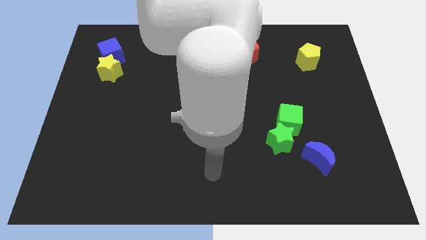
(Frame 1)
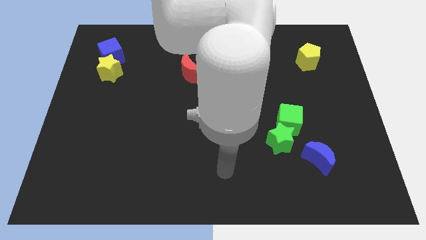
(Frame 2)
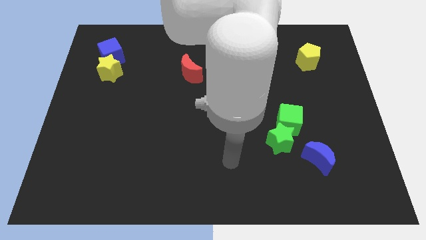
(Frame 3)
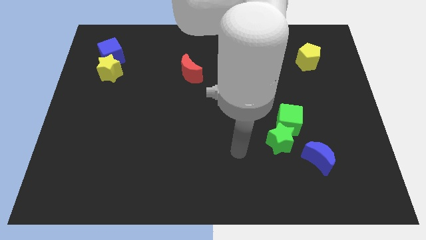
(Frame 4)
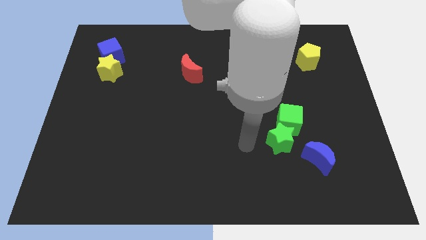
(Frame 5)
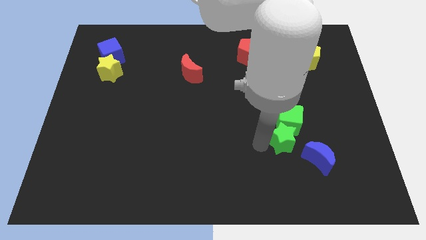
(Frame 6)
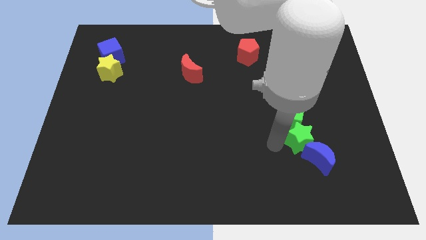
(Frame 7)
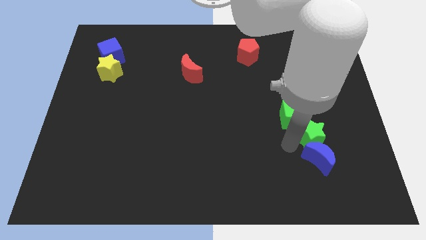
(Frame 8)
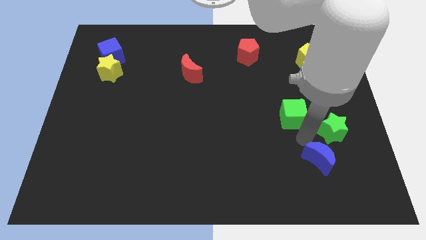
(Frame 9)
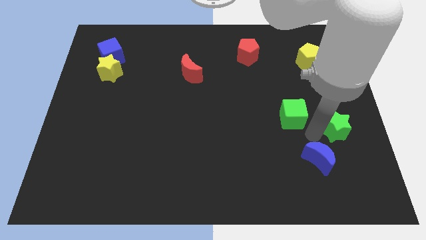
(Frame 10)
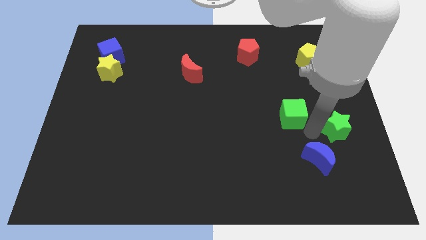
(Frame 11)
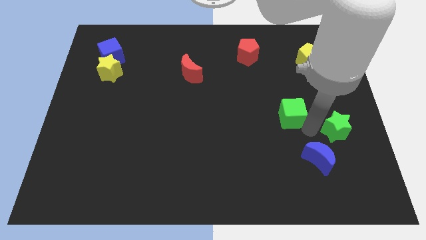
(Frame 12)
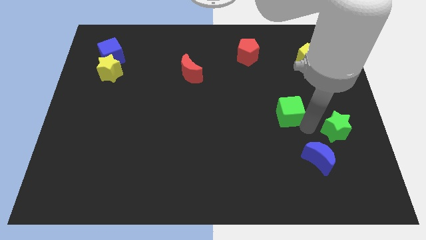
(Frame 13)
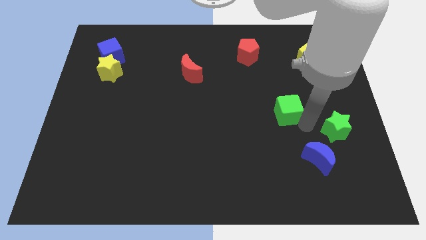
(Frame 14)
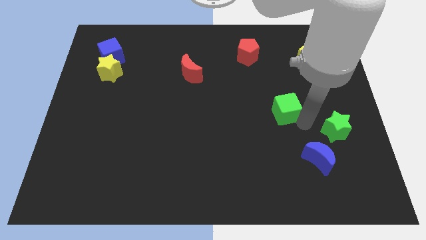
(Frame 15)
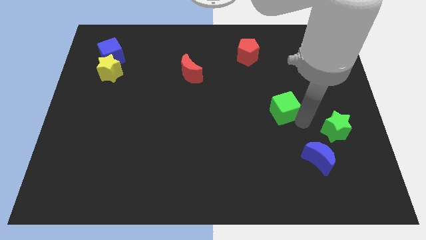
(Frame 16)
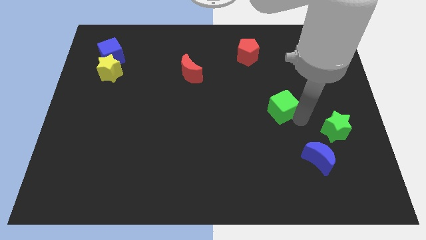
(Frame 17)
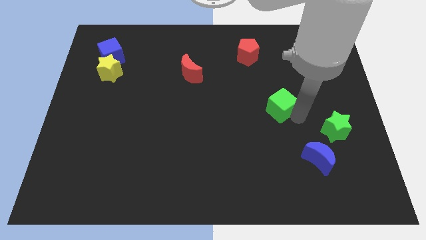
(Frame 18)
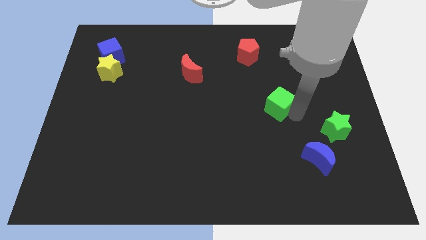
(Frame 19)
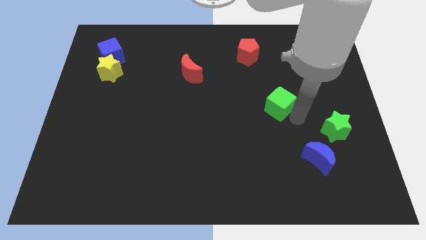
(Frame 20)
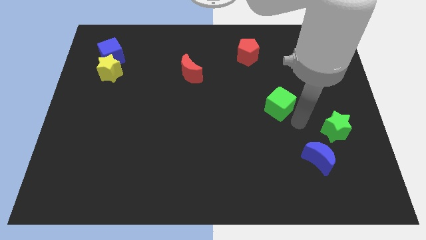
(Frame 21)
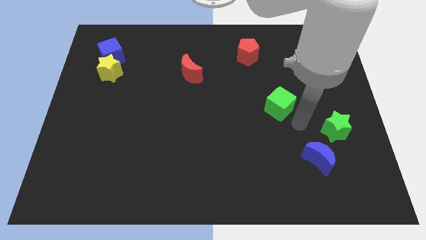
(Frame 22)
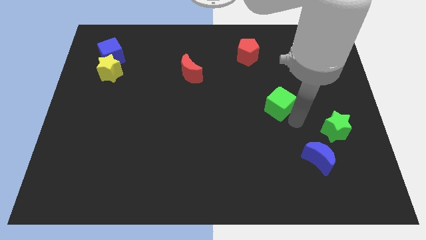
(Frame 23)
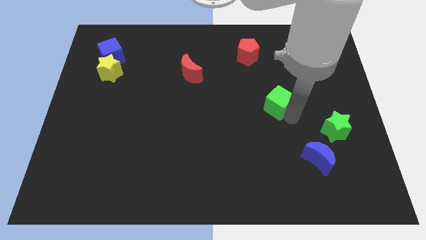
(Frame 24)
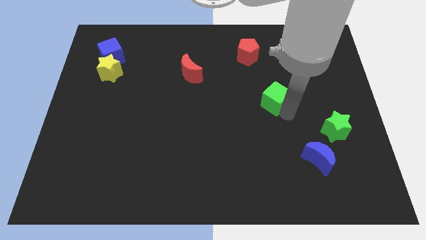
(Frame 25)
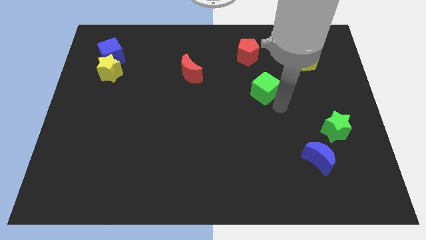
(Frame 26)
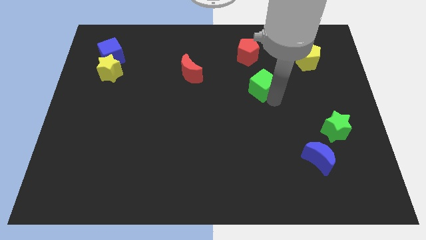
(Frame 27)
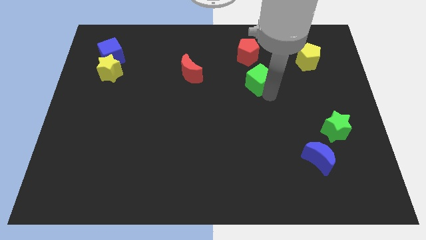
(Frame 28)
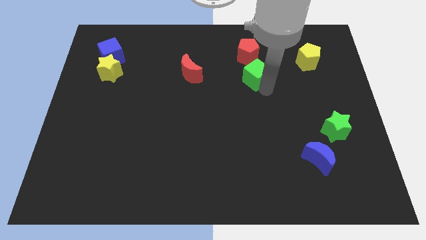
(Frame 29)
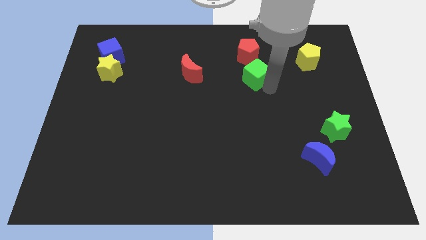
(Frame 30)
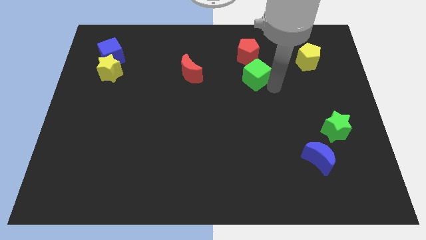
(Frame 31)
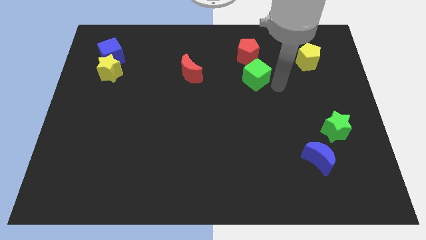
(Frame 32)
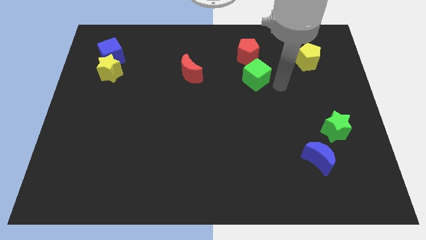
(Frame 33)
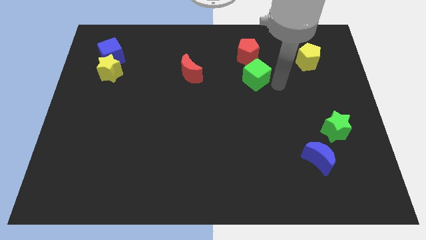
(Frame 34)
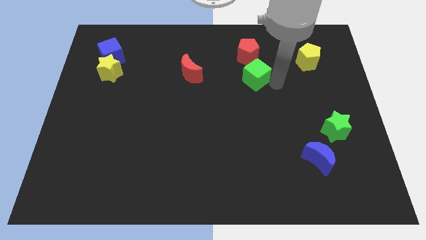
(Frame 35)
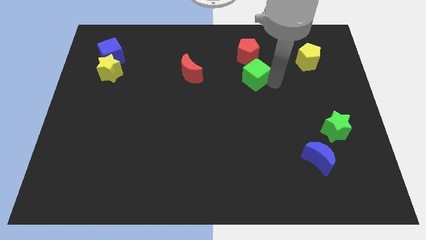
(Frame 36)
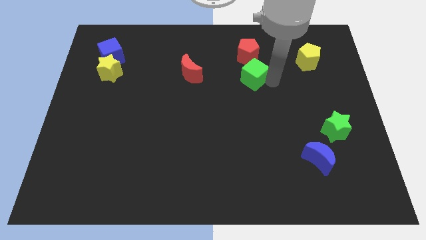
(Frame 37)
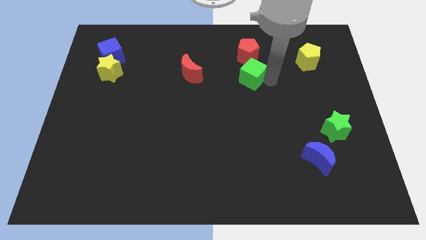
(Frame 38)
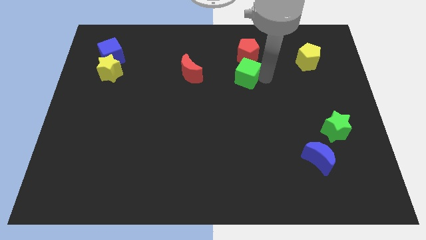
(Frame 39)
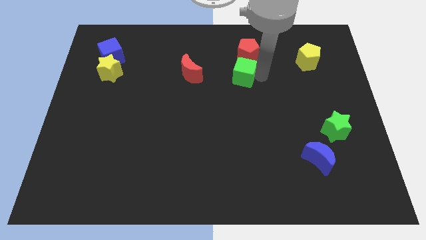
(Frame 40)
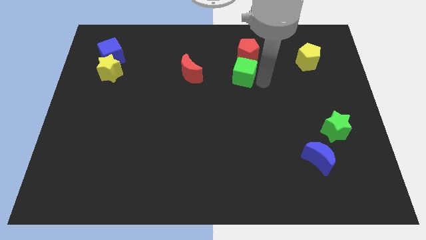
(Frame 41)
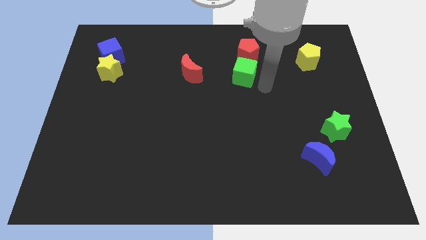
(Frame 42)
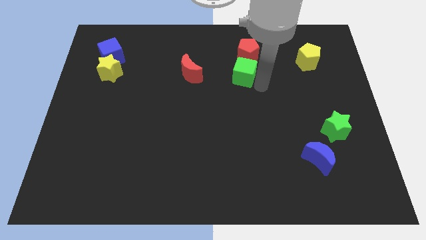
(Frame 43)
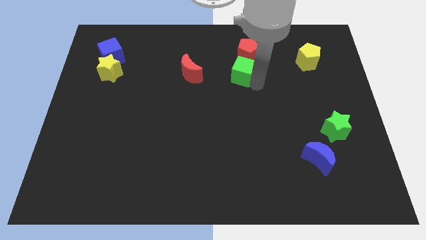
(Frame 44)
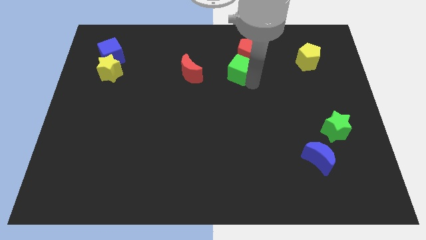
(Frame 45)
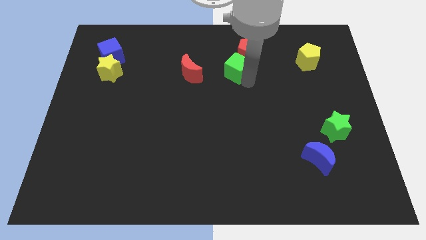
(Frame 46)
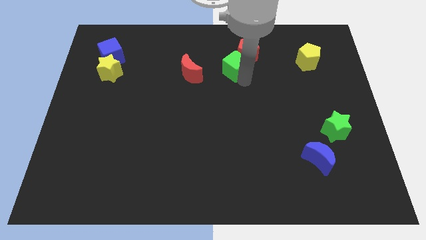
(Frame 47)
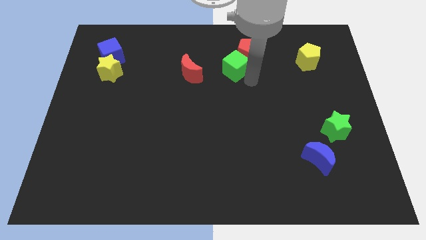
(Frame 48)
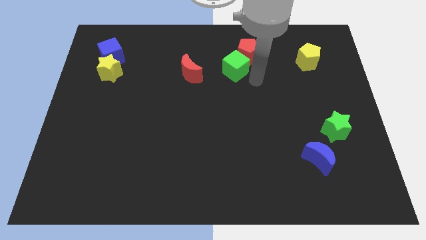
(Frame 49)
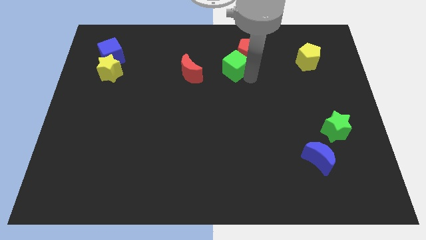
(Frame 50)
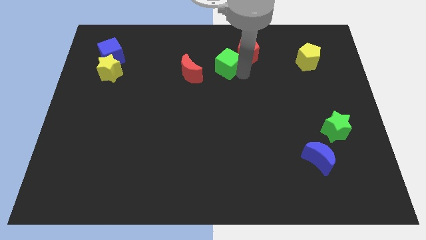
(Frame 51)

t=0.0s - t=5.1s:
slide the green cube left of the red pentagon

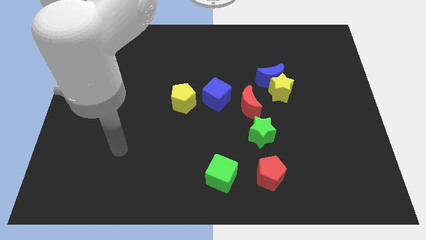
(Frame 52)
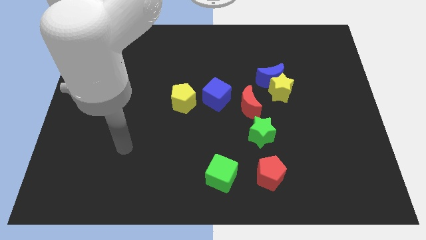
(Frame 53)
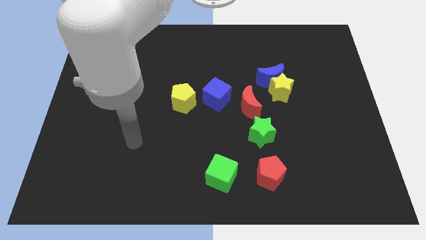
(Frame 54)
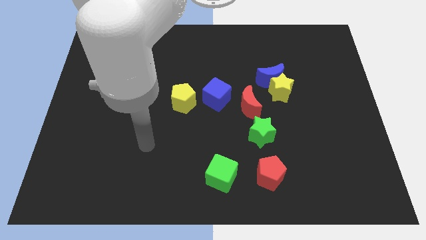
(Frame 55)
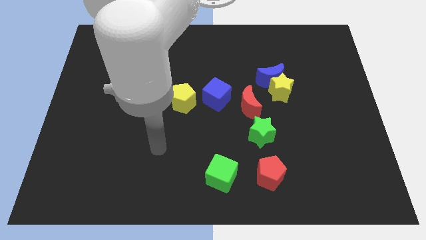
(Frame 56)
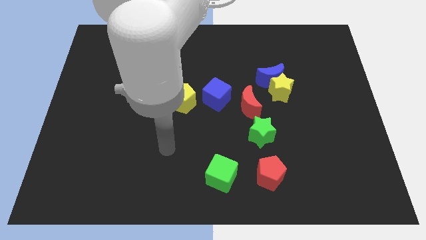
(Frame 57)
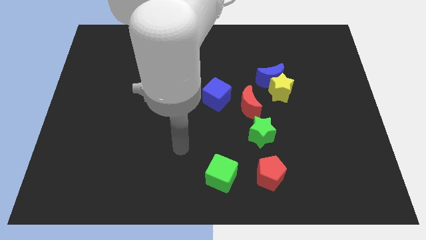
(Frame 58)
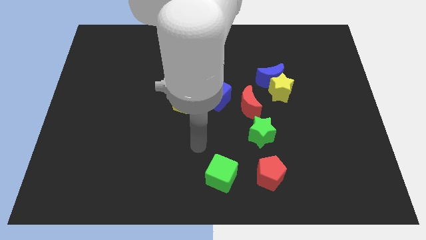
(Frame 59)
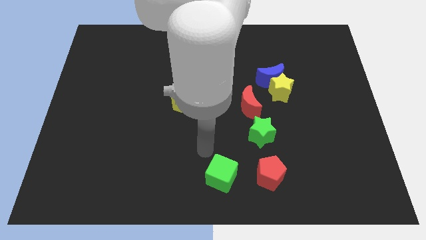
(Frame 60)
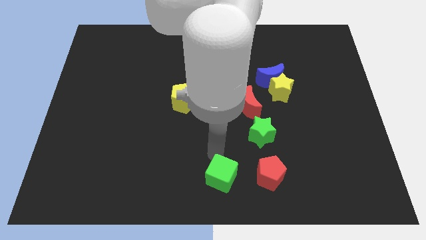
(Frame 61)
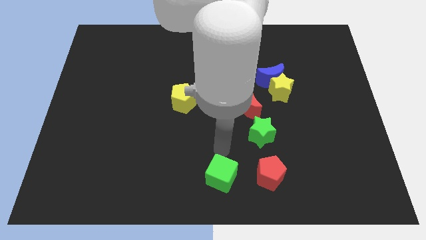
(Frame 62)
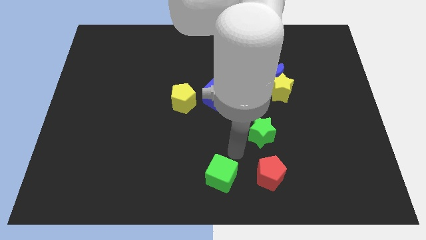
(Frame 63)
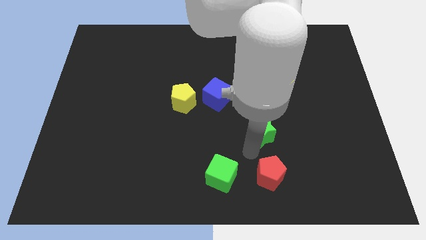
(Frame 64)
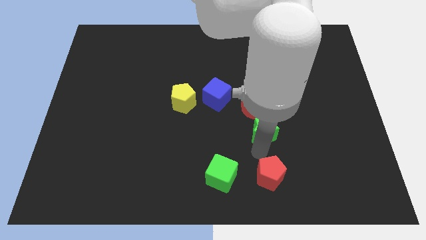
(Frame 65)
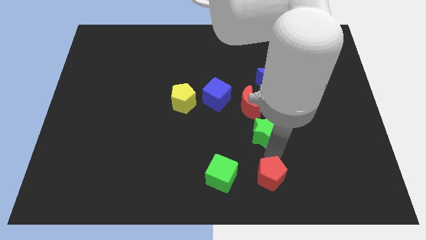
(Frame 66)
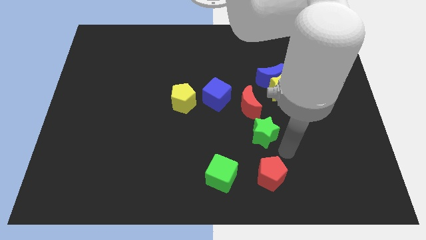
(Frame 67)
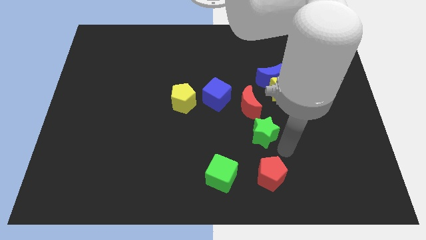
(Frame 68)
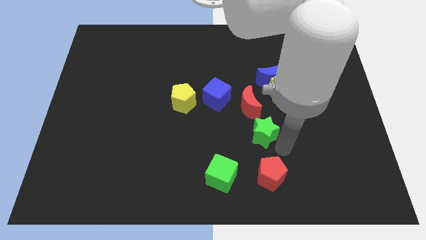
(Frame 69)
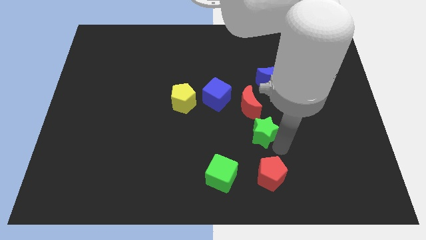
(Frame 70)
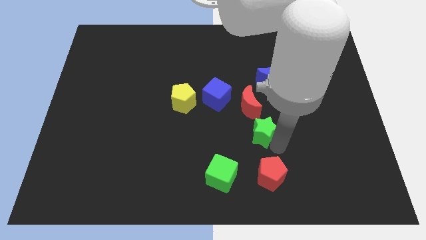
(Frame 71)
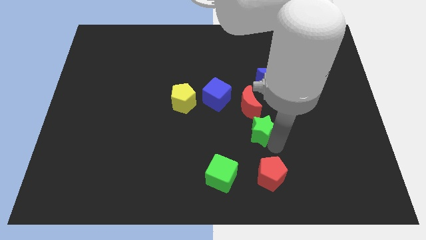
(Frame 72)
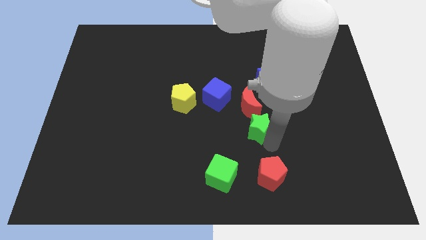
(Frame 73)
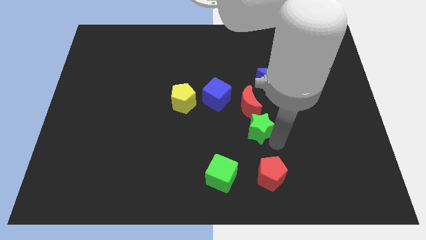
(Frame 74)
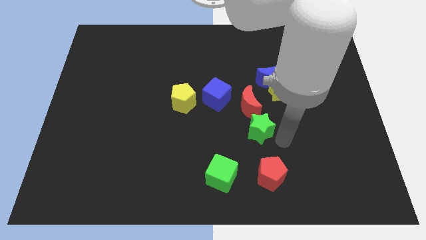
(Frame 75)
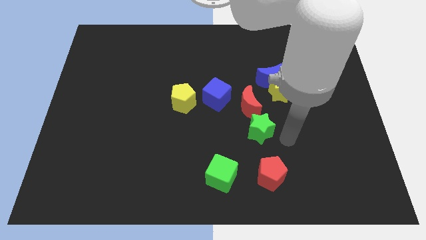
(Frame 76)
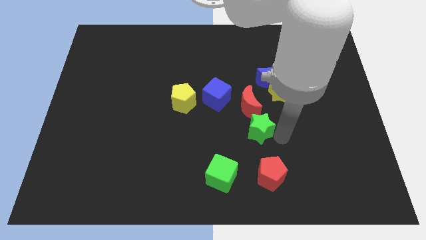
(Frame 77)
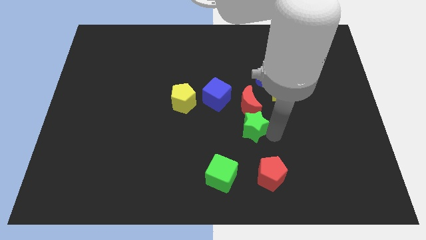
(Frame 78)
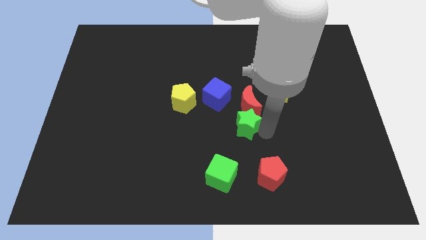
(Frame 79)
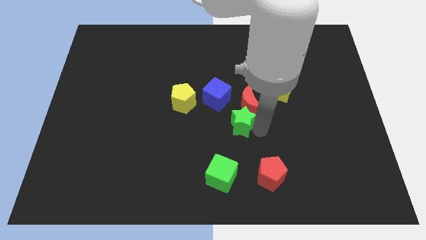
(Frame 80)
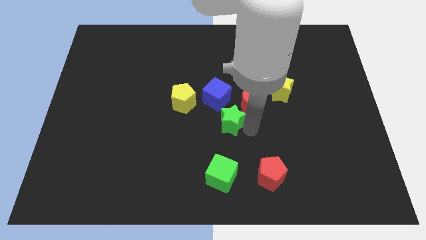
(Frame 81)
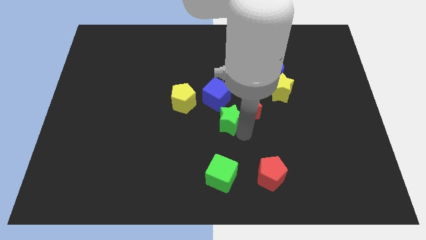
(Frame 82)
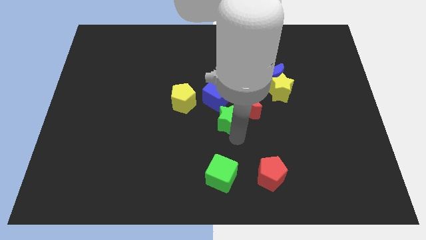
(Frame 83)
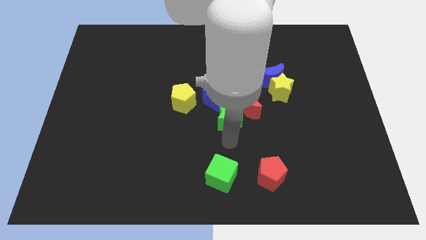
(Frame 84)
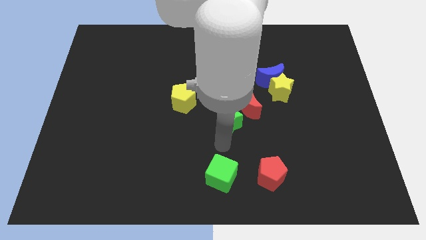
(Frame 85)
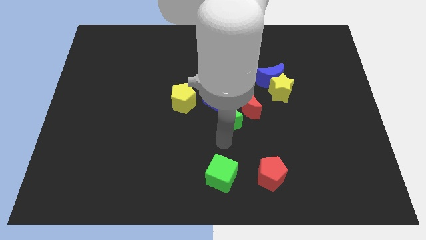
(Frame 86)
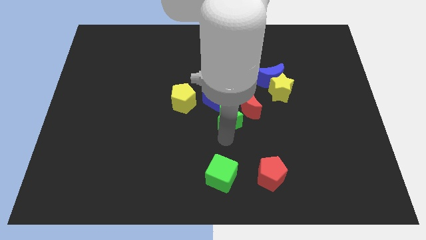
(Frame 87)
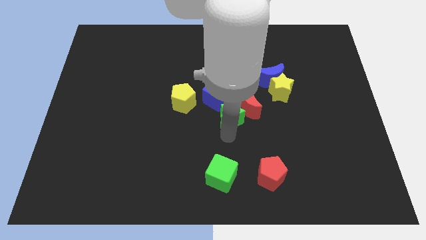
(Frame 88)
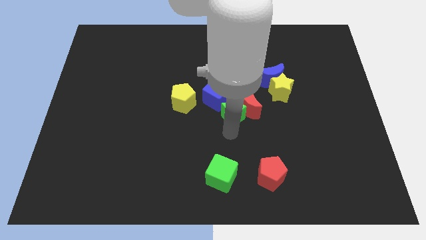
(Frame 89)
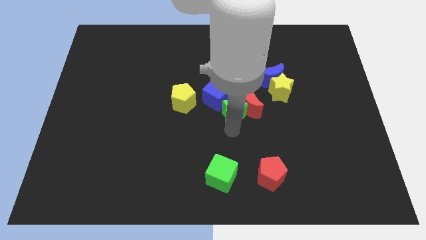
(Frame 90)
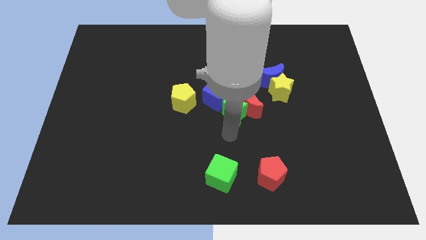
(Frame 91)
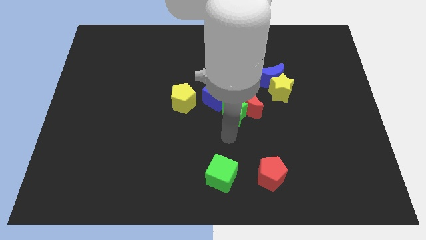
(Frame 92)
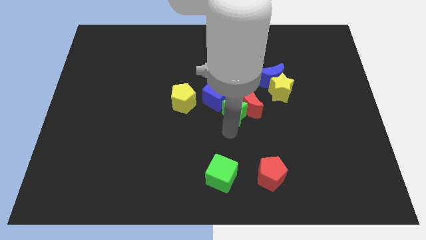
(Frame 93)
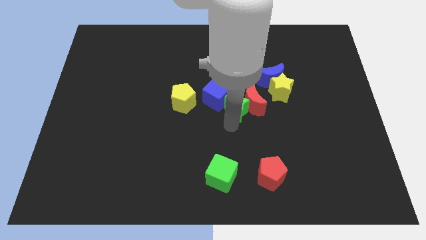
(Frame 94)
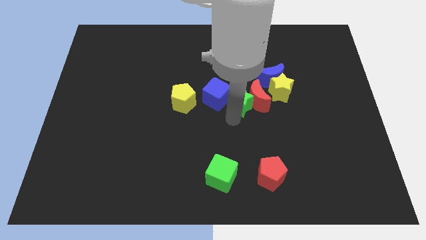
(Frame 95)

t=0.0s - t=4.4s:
slide the green star to the left side of the yellow star
